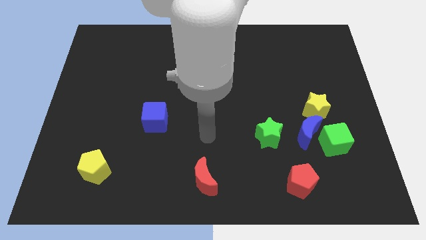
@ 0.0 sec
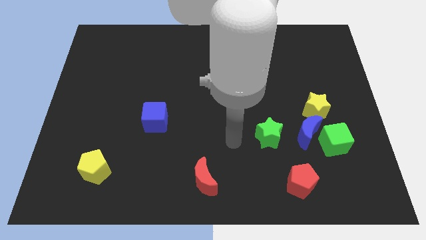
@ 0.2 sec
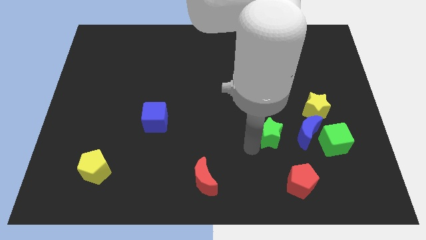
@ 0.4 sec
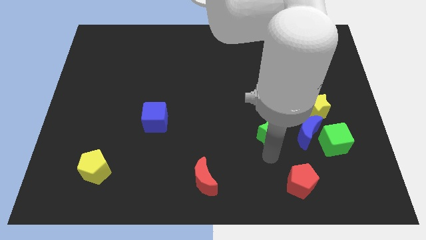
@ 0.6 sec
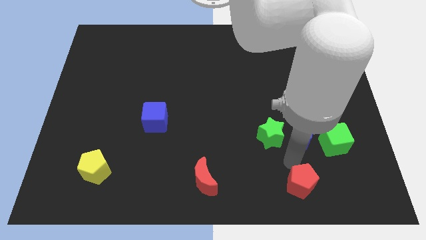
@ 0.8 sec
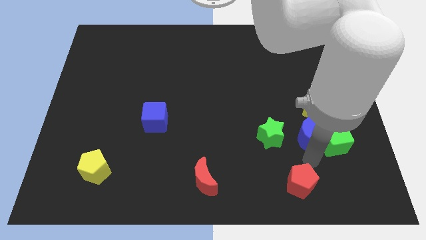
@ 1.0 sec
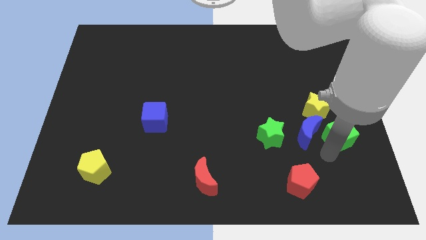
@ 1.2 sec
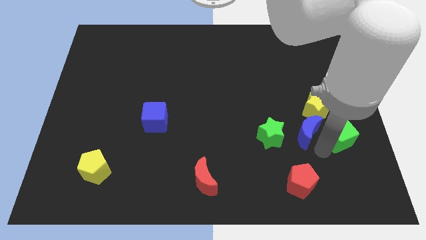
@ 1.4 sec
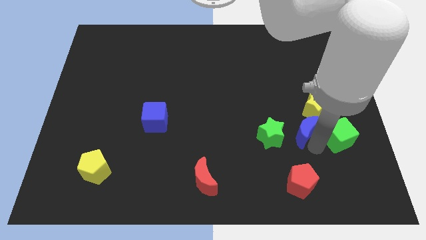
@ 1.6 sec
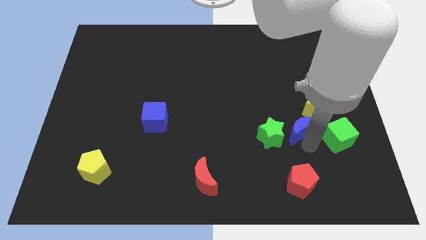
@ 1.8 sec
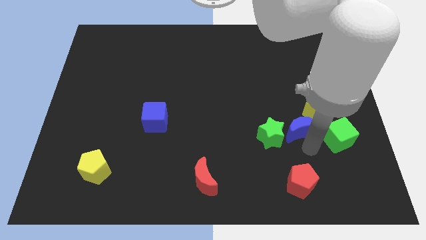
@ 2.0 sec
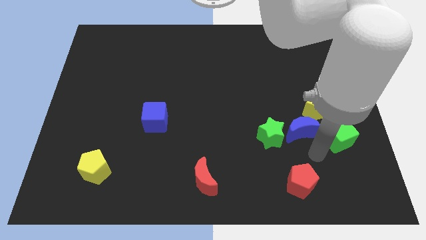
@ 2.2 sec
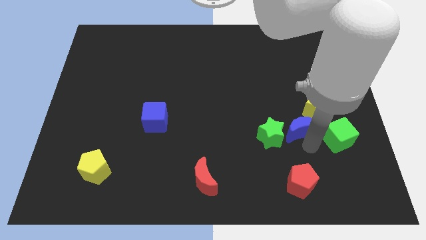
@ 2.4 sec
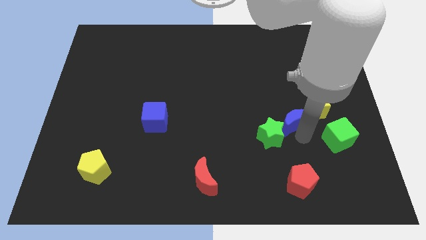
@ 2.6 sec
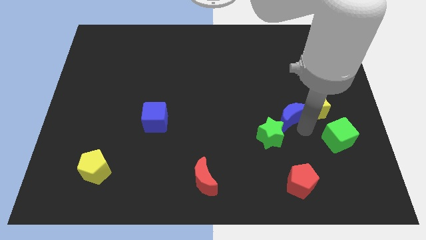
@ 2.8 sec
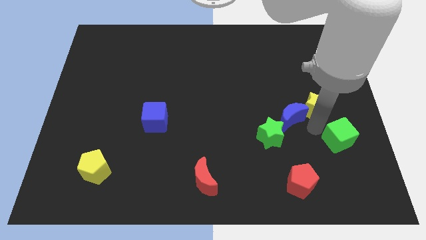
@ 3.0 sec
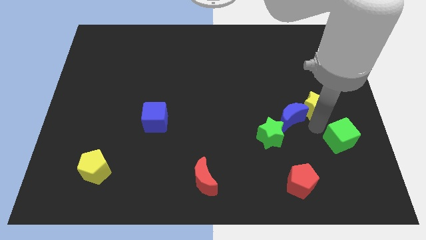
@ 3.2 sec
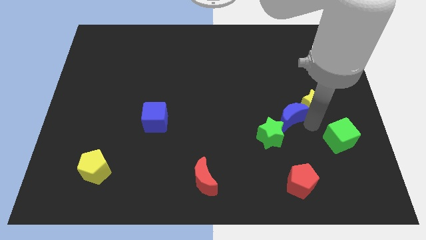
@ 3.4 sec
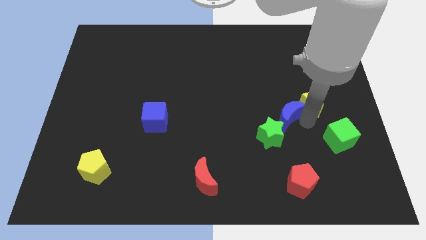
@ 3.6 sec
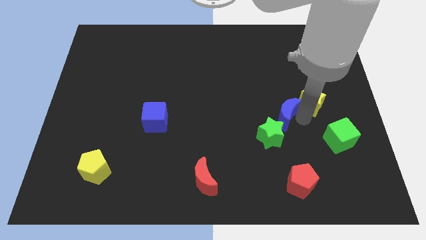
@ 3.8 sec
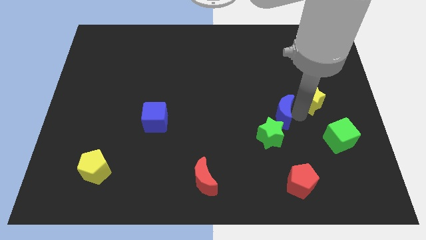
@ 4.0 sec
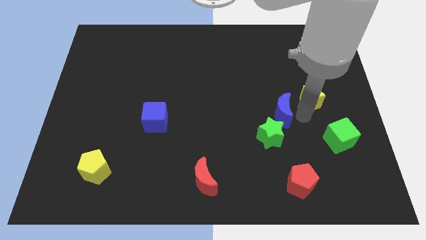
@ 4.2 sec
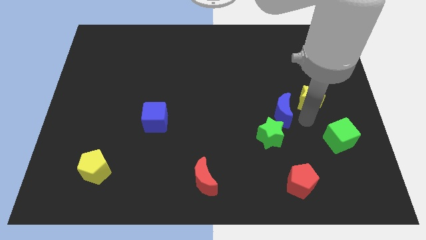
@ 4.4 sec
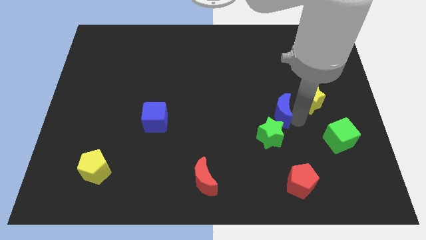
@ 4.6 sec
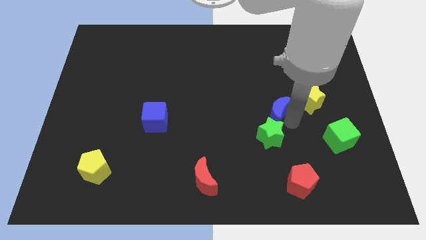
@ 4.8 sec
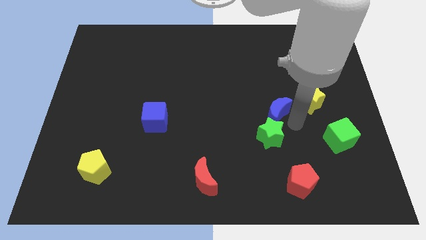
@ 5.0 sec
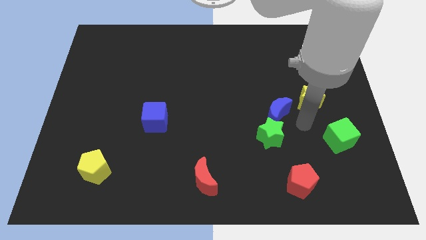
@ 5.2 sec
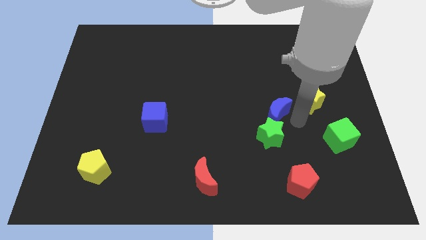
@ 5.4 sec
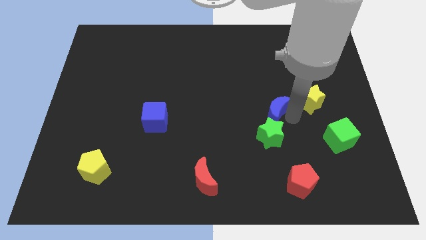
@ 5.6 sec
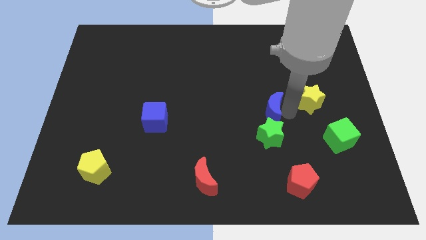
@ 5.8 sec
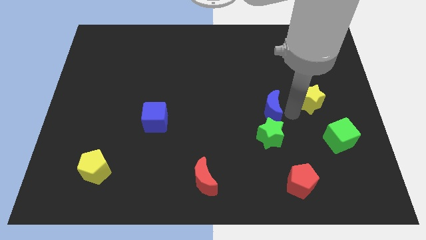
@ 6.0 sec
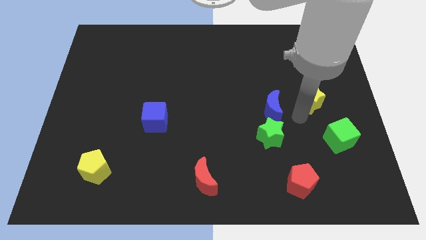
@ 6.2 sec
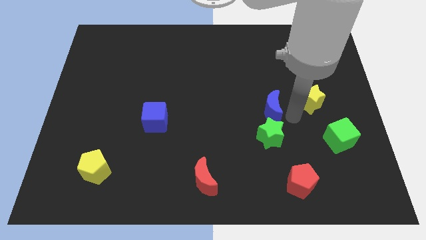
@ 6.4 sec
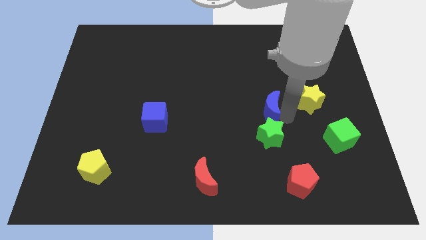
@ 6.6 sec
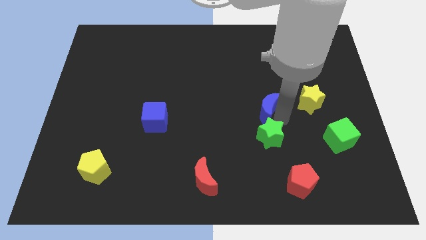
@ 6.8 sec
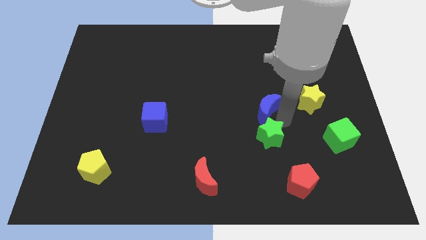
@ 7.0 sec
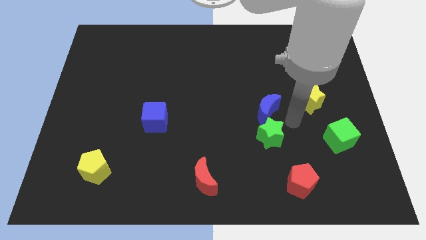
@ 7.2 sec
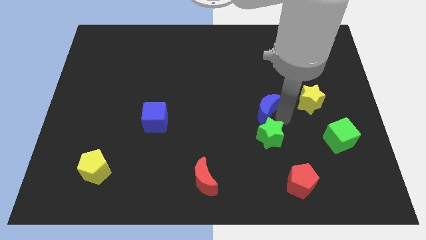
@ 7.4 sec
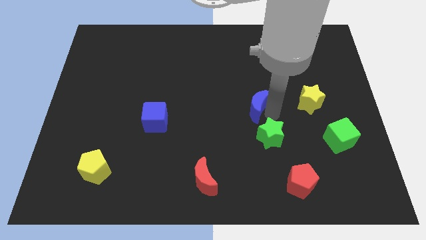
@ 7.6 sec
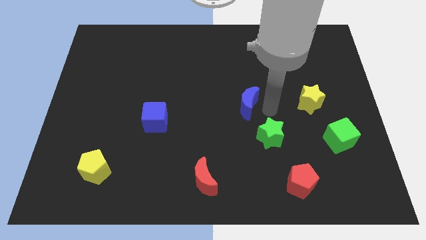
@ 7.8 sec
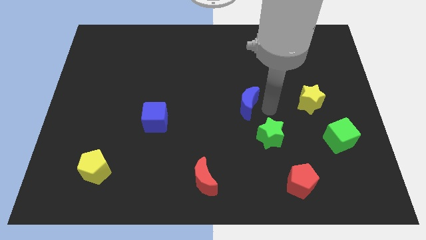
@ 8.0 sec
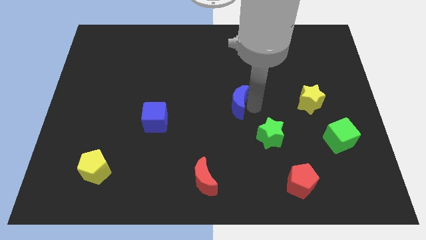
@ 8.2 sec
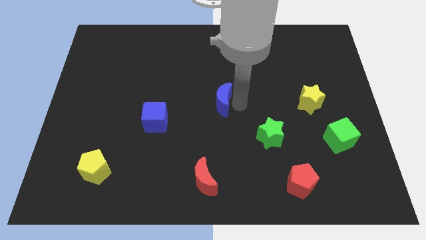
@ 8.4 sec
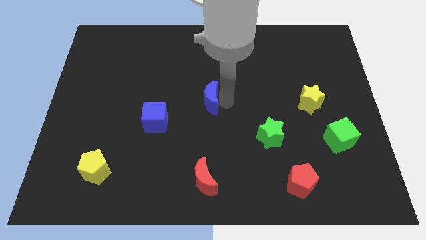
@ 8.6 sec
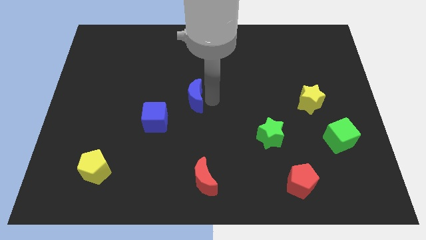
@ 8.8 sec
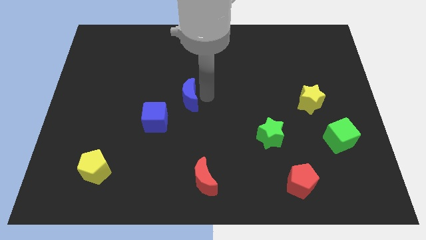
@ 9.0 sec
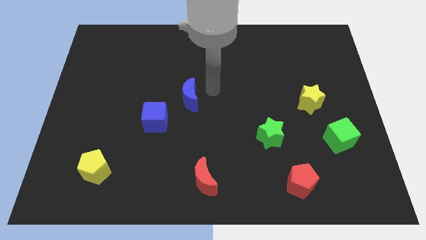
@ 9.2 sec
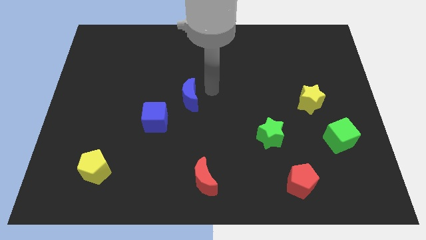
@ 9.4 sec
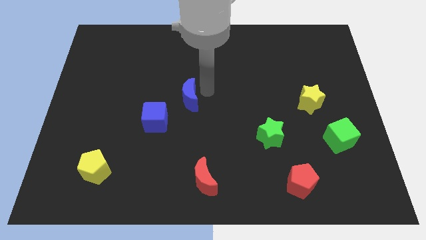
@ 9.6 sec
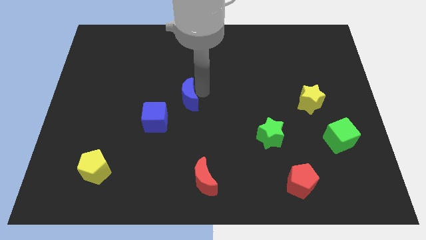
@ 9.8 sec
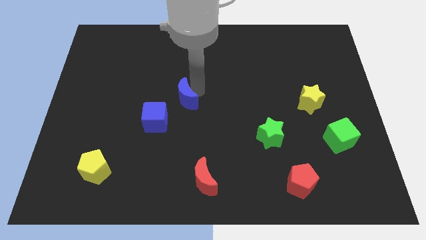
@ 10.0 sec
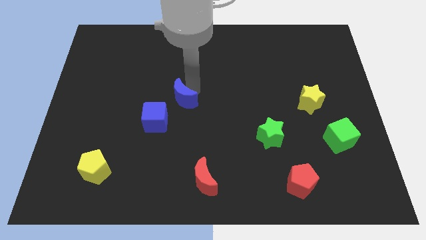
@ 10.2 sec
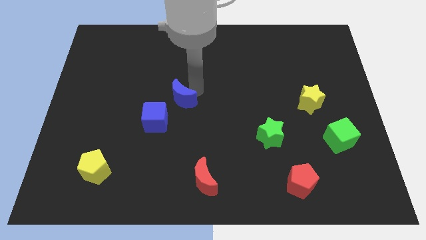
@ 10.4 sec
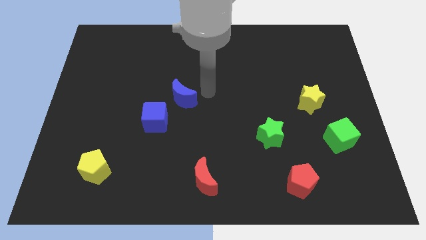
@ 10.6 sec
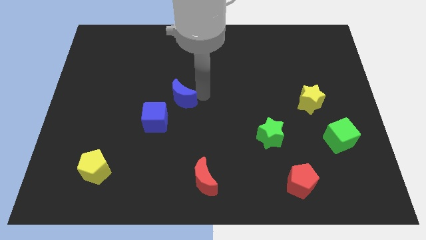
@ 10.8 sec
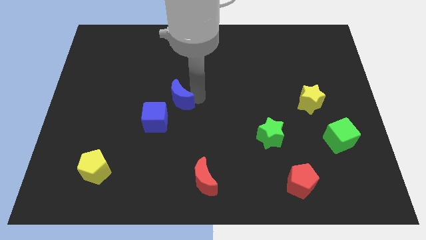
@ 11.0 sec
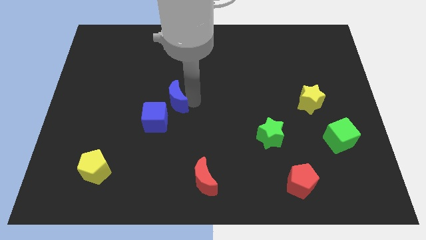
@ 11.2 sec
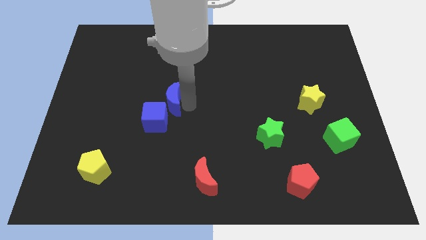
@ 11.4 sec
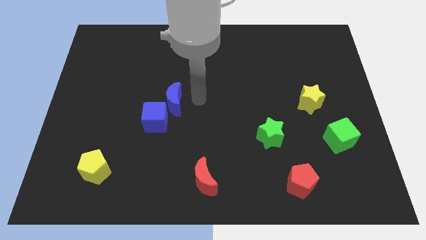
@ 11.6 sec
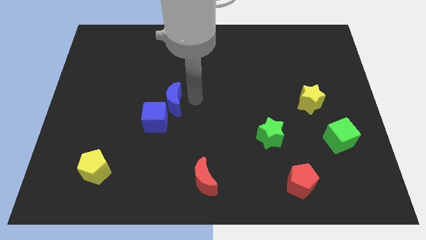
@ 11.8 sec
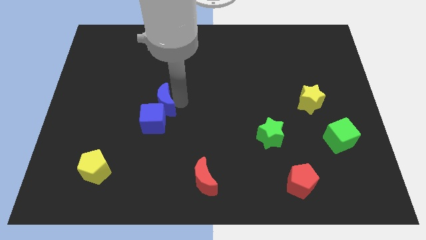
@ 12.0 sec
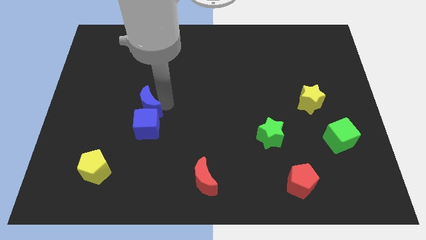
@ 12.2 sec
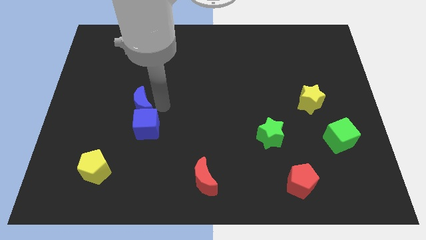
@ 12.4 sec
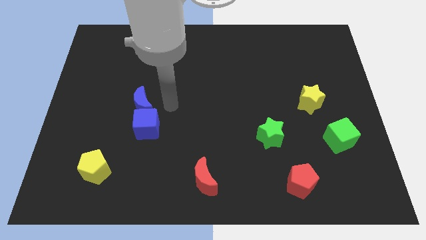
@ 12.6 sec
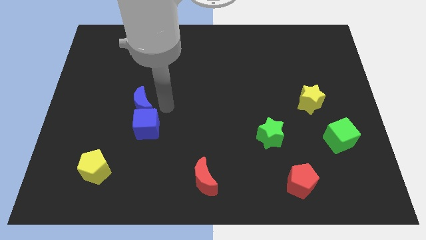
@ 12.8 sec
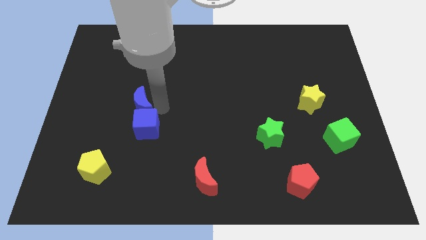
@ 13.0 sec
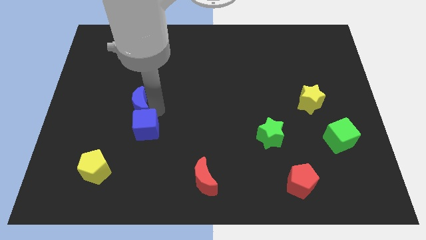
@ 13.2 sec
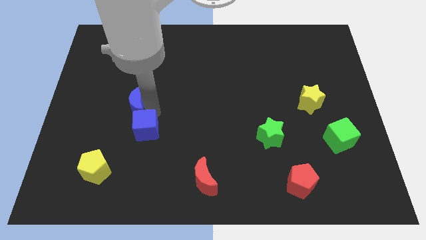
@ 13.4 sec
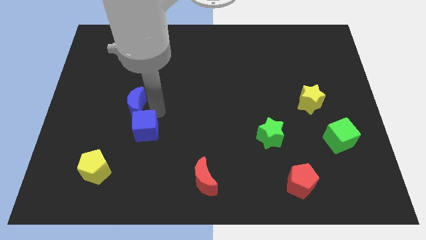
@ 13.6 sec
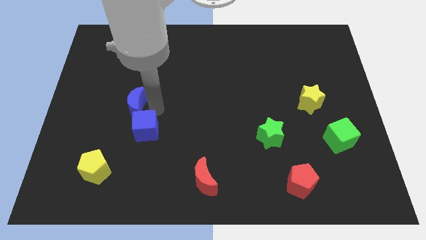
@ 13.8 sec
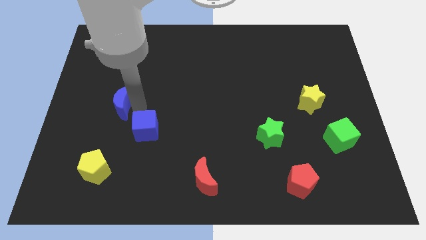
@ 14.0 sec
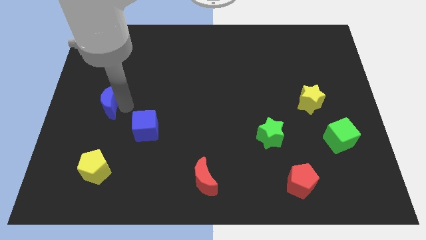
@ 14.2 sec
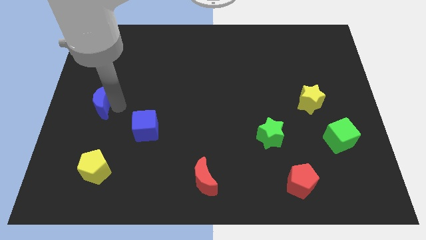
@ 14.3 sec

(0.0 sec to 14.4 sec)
push the blue moon to the left side of the board
